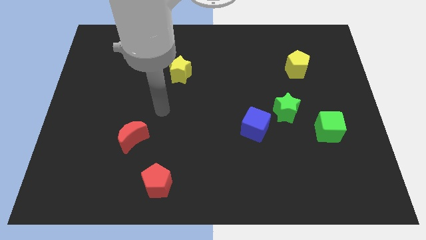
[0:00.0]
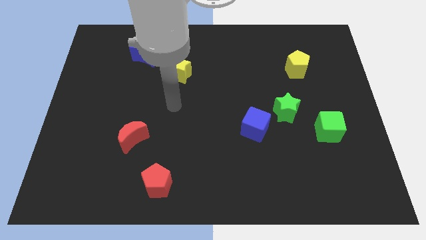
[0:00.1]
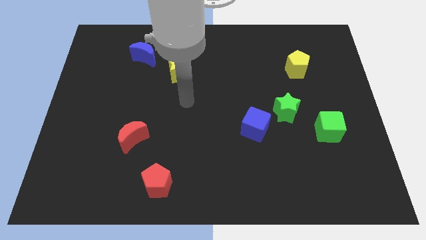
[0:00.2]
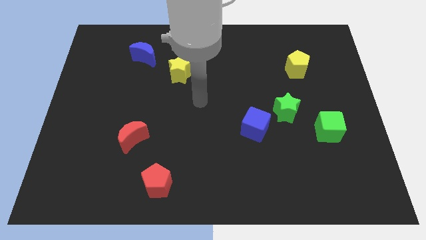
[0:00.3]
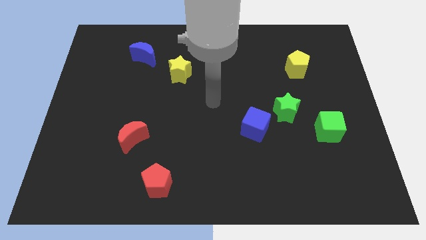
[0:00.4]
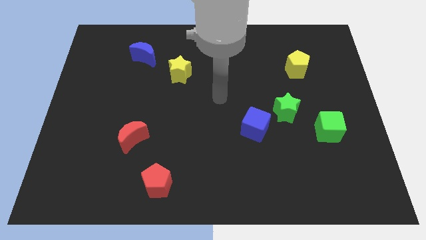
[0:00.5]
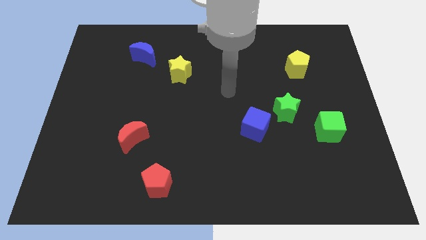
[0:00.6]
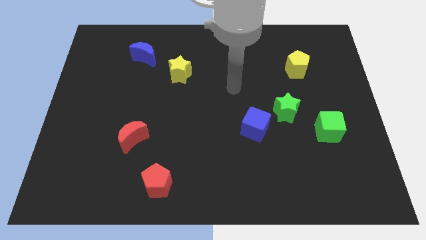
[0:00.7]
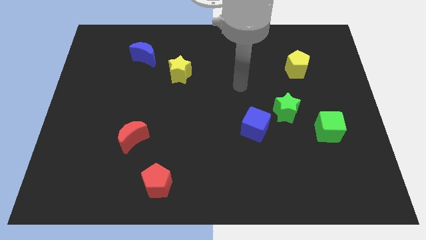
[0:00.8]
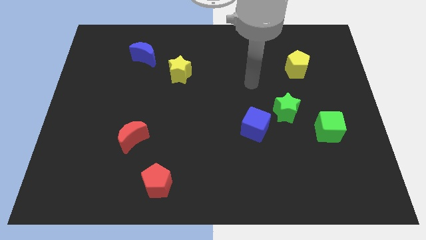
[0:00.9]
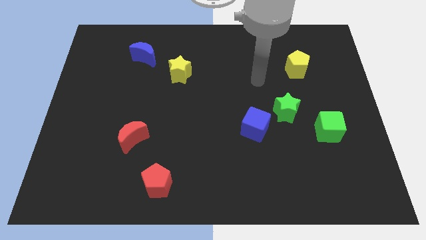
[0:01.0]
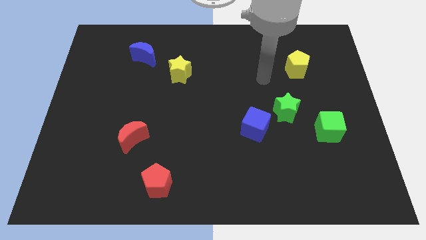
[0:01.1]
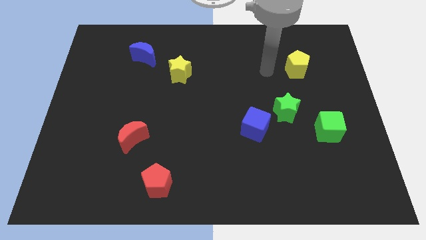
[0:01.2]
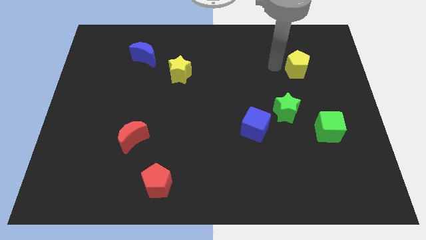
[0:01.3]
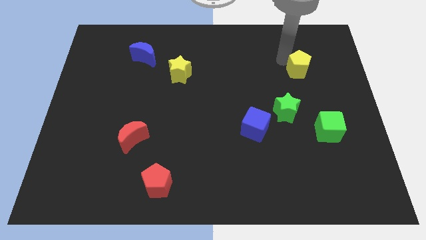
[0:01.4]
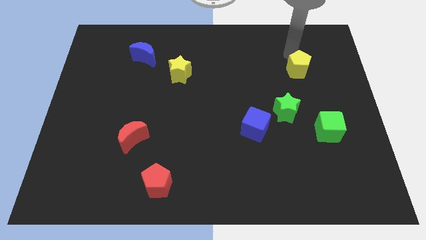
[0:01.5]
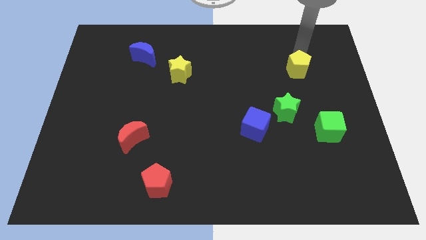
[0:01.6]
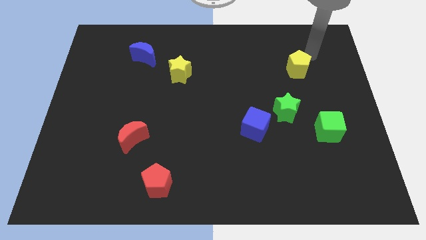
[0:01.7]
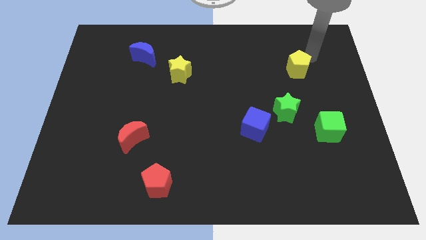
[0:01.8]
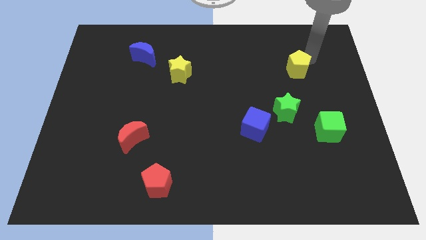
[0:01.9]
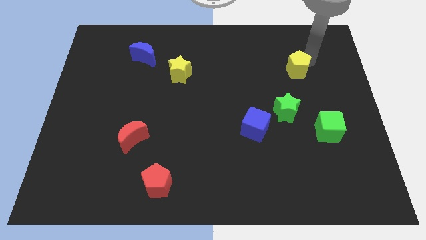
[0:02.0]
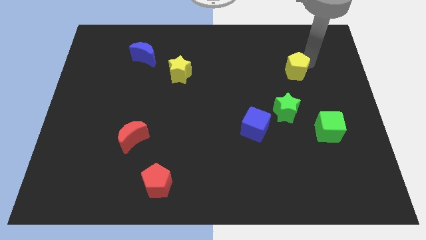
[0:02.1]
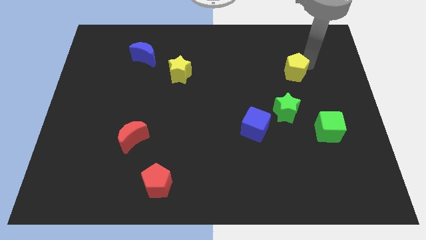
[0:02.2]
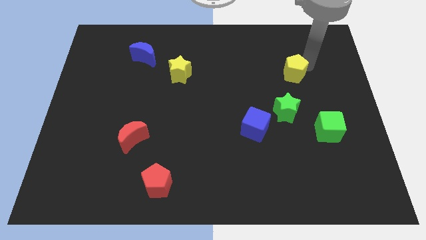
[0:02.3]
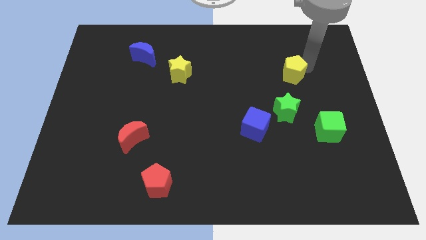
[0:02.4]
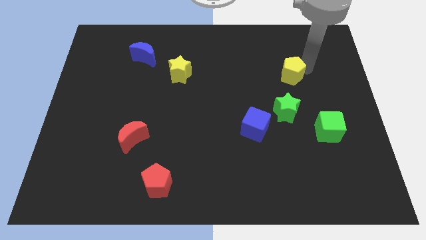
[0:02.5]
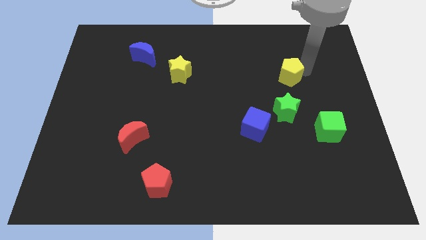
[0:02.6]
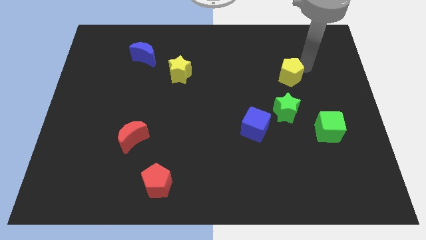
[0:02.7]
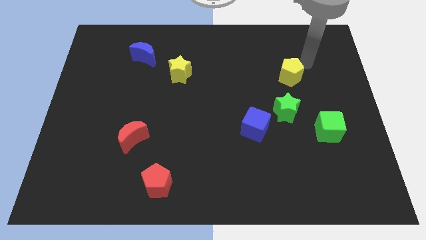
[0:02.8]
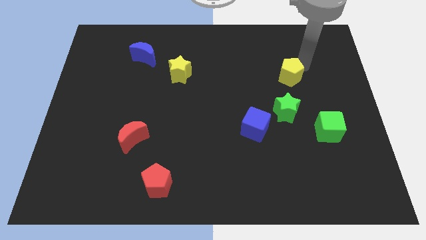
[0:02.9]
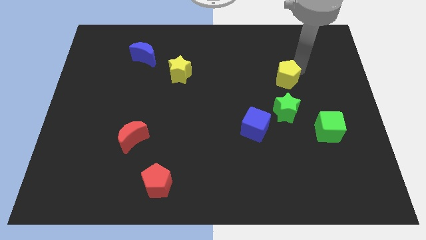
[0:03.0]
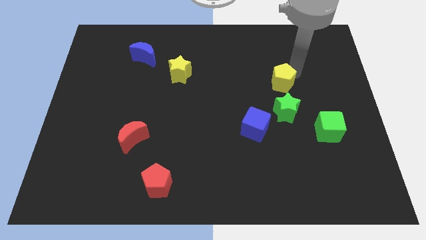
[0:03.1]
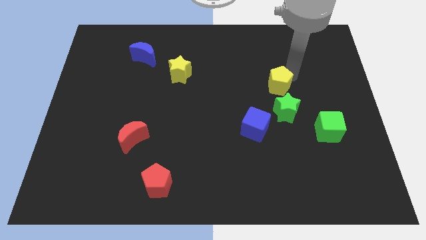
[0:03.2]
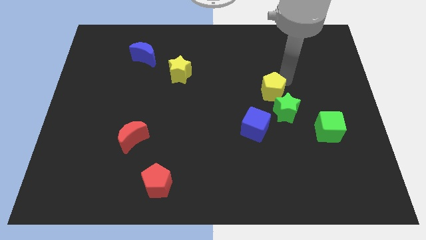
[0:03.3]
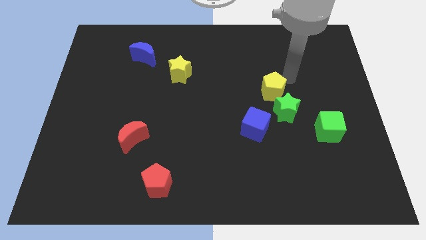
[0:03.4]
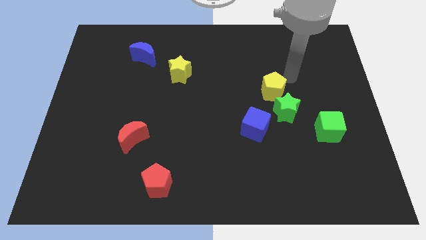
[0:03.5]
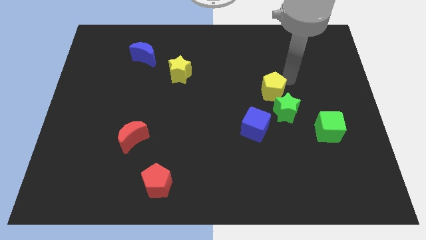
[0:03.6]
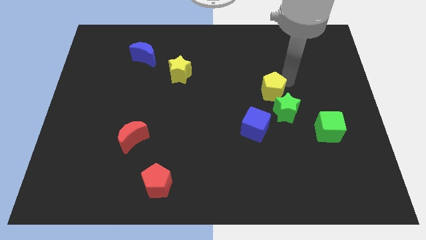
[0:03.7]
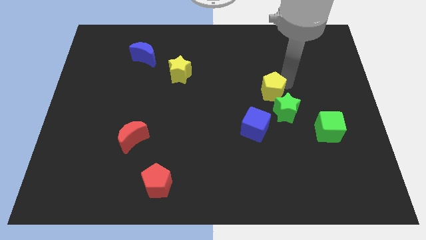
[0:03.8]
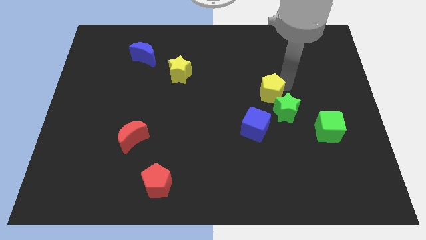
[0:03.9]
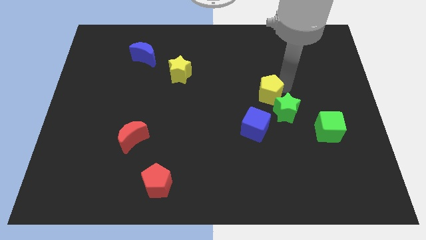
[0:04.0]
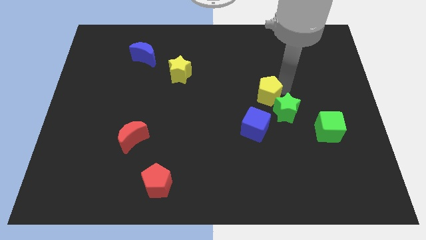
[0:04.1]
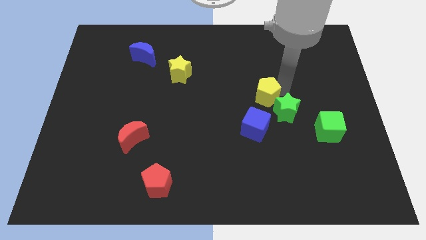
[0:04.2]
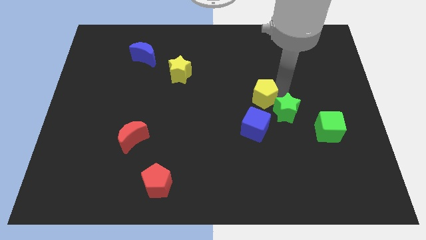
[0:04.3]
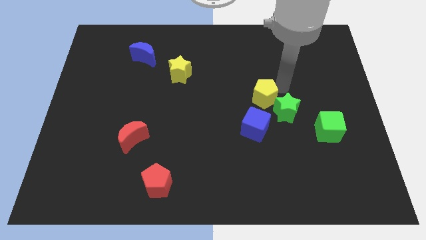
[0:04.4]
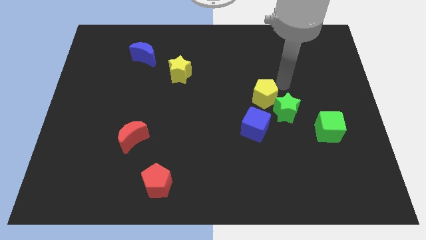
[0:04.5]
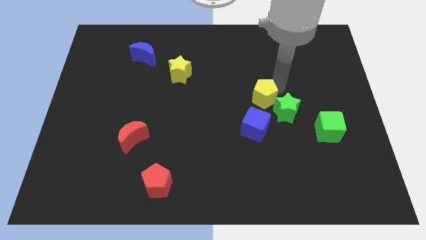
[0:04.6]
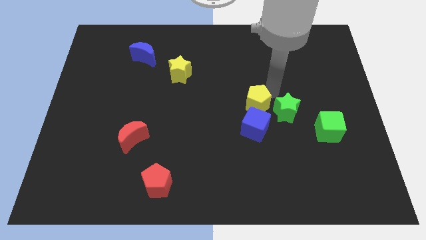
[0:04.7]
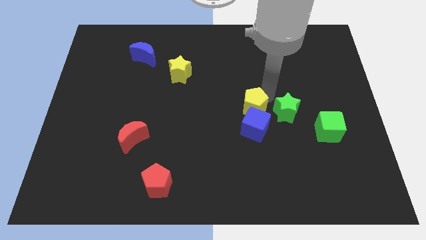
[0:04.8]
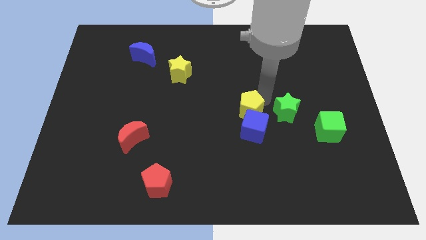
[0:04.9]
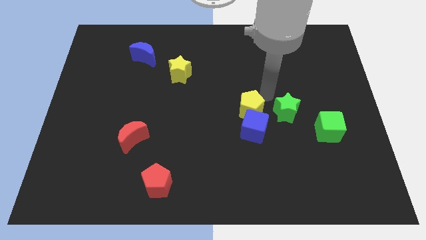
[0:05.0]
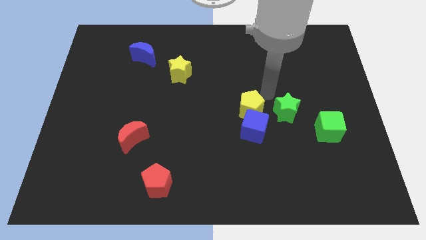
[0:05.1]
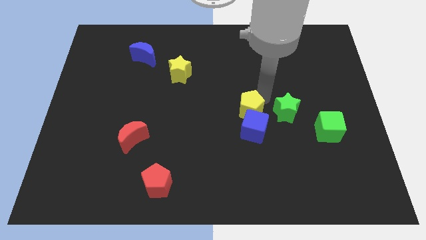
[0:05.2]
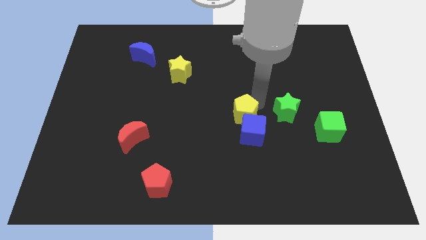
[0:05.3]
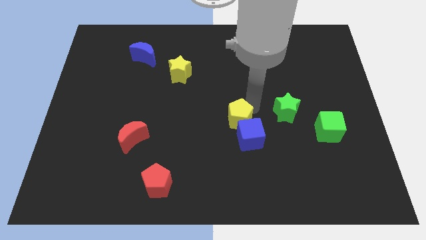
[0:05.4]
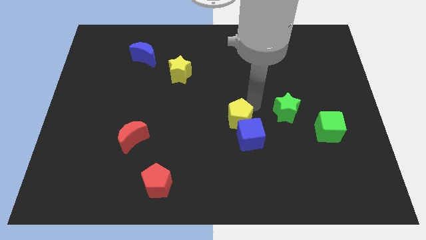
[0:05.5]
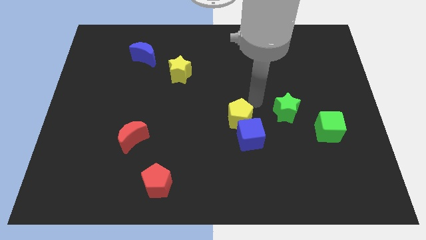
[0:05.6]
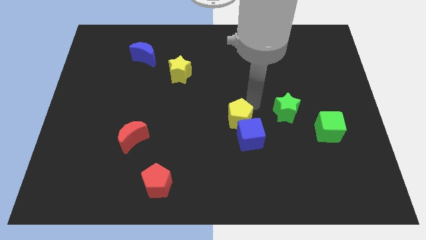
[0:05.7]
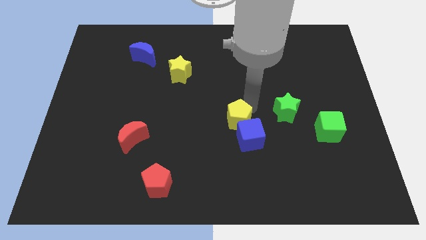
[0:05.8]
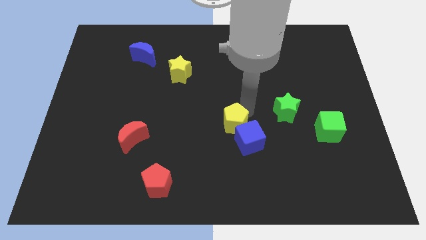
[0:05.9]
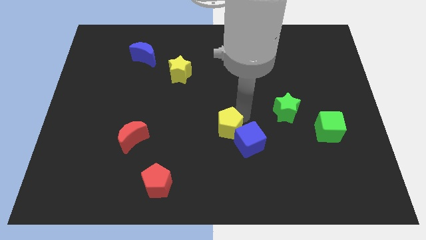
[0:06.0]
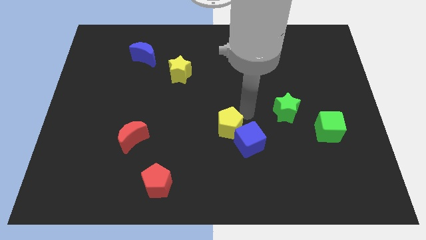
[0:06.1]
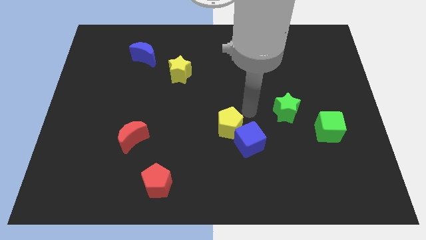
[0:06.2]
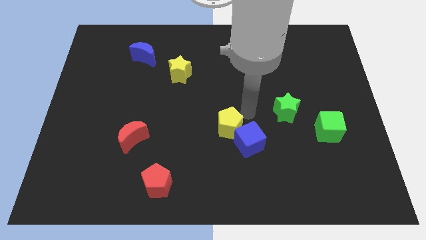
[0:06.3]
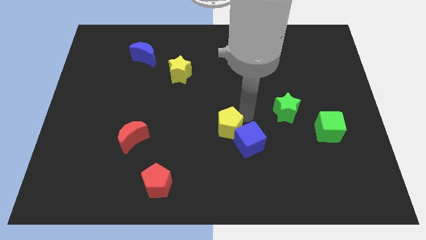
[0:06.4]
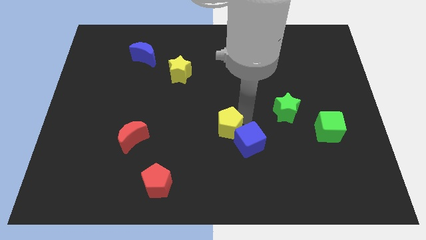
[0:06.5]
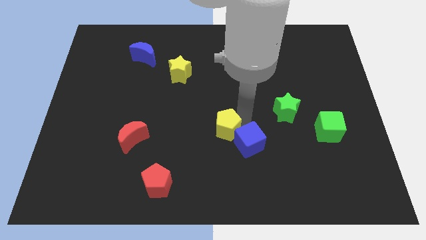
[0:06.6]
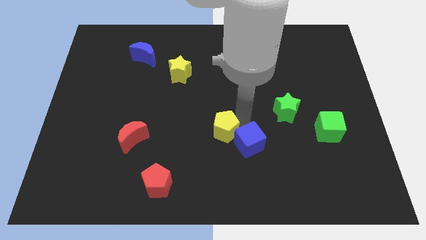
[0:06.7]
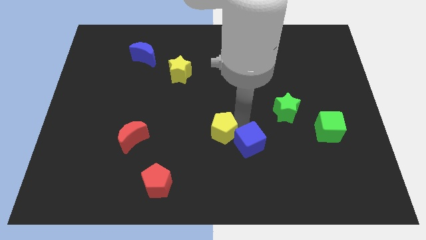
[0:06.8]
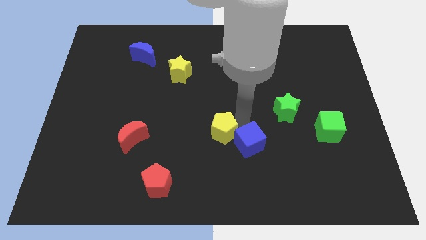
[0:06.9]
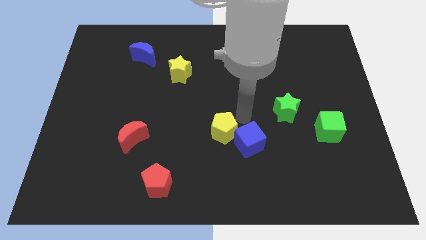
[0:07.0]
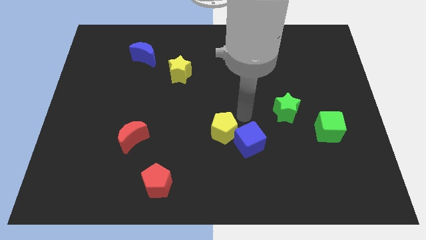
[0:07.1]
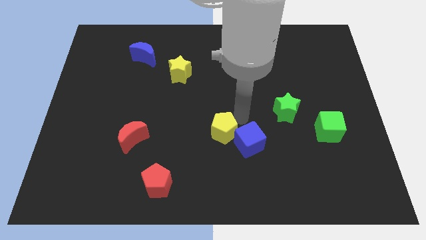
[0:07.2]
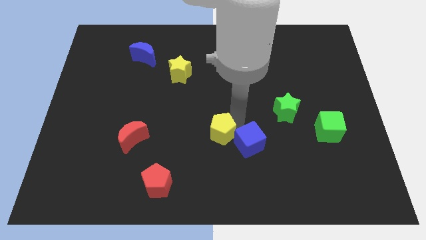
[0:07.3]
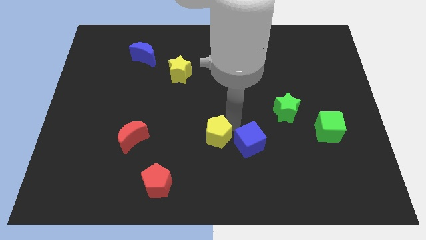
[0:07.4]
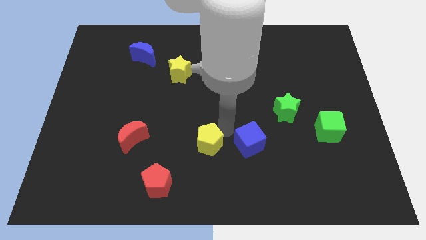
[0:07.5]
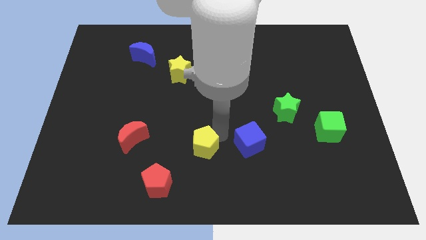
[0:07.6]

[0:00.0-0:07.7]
push the yellow pentagon to the top right of the red pentagon
